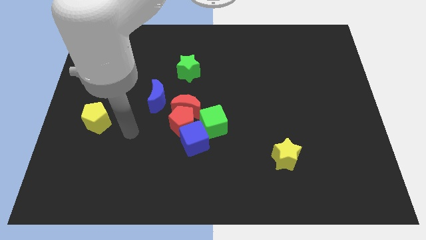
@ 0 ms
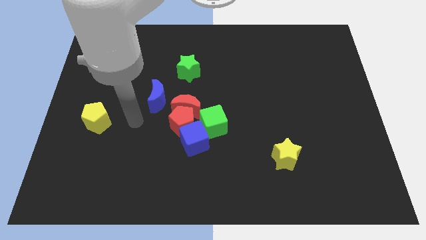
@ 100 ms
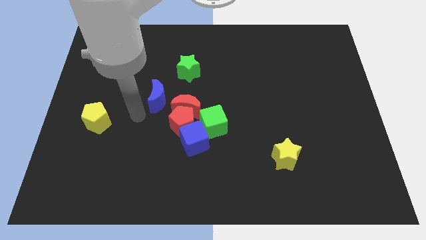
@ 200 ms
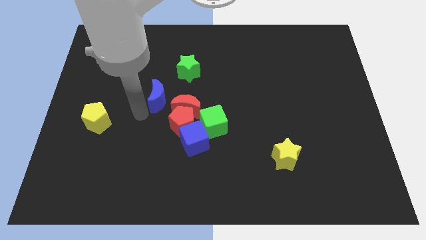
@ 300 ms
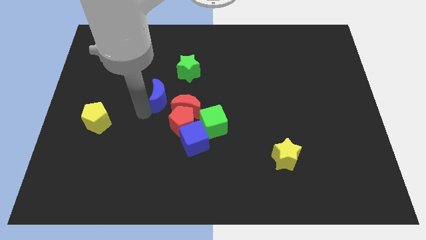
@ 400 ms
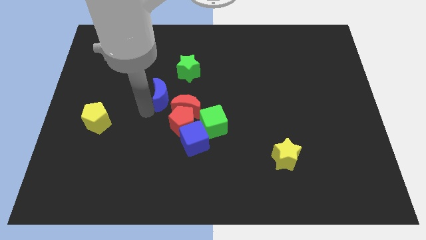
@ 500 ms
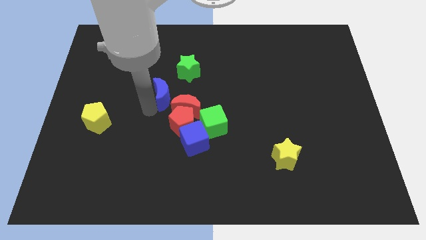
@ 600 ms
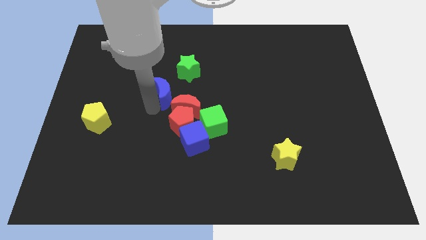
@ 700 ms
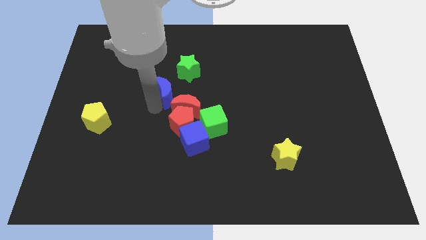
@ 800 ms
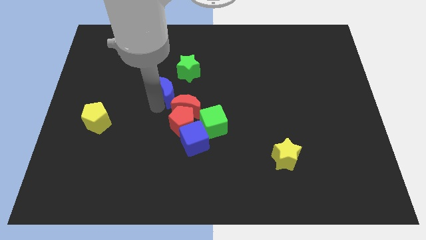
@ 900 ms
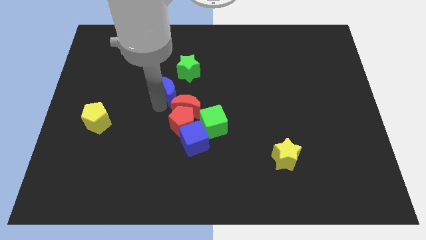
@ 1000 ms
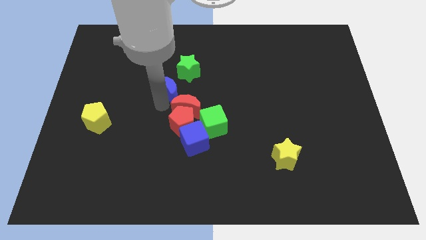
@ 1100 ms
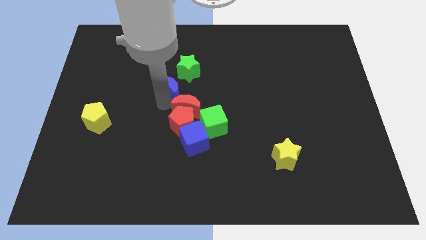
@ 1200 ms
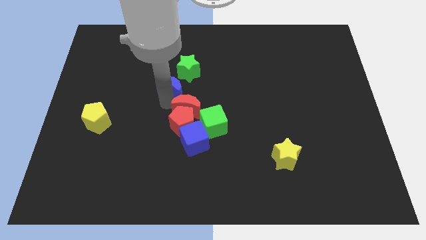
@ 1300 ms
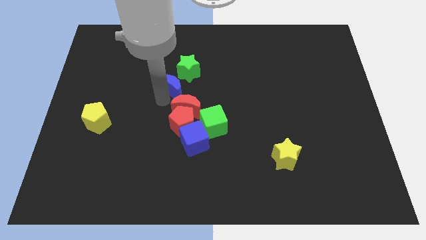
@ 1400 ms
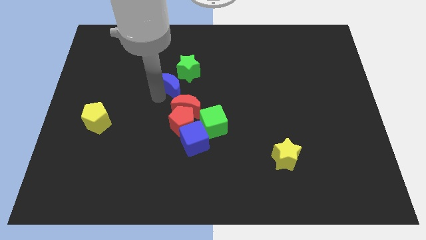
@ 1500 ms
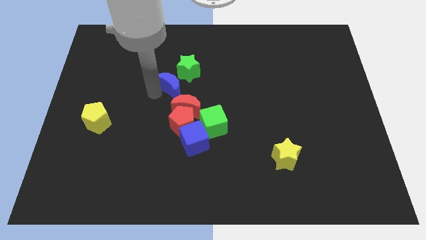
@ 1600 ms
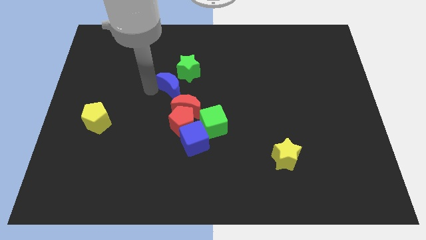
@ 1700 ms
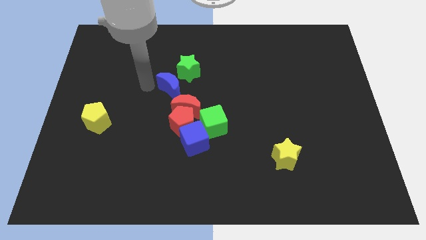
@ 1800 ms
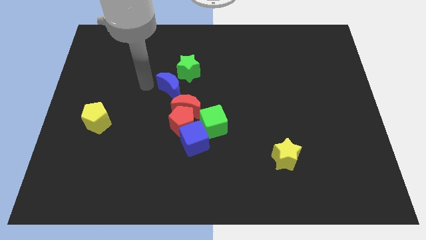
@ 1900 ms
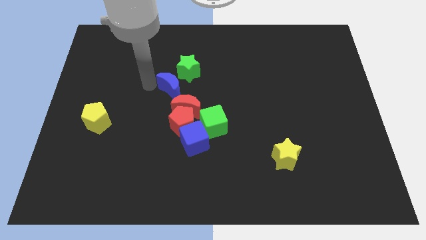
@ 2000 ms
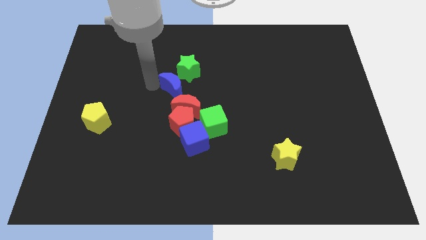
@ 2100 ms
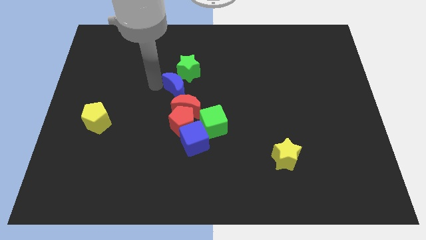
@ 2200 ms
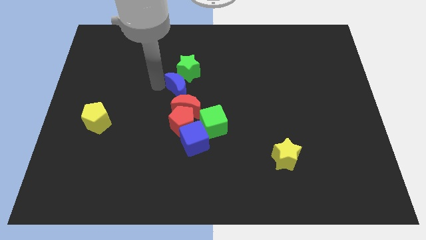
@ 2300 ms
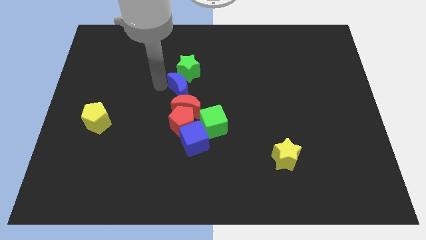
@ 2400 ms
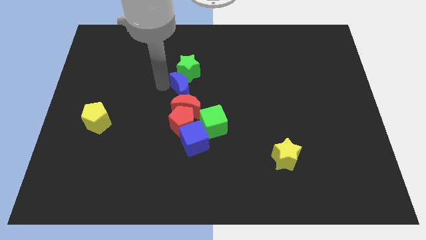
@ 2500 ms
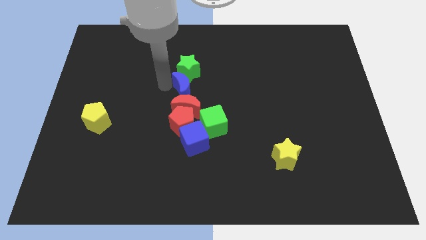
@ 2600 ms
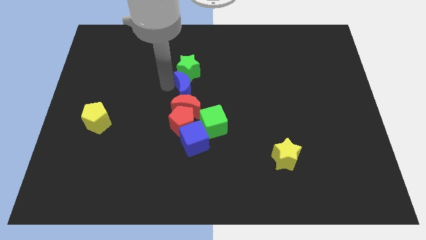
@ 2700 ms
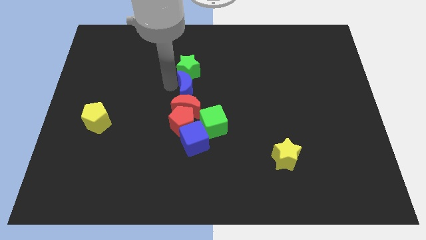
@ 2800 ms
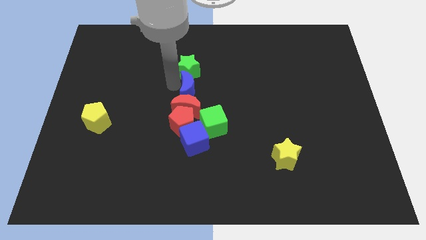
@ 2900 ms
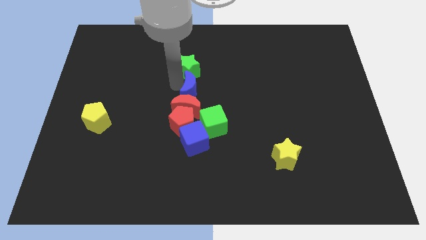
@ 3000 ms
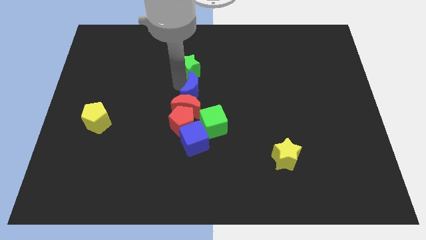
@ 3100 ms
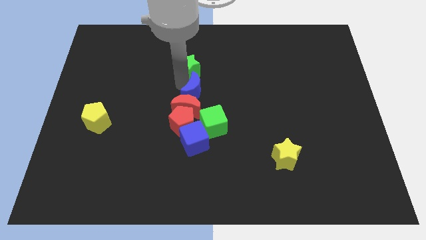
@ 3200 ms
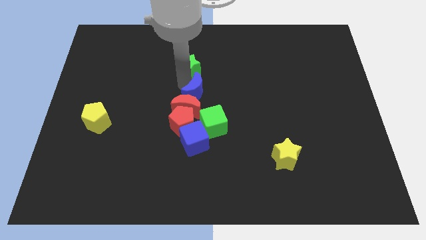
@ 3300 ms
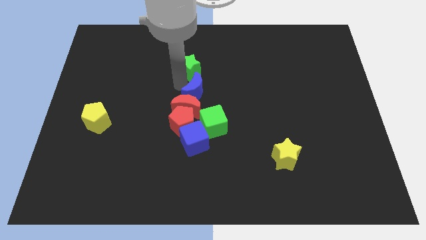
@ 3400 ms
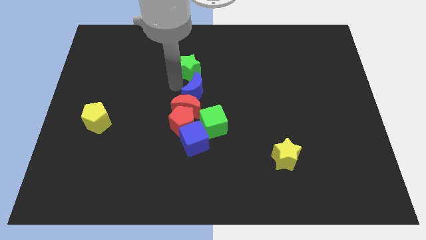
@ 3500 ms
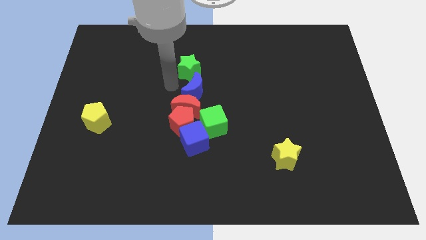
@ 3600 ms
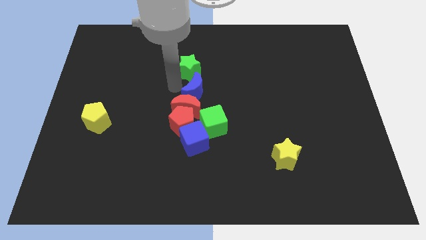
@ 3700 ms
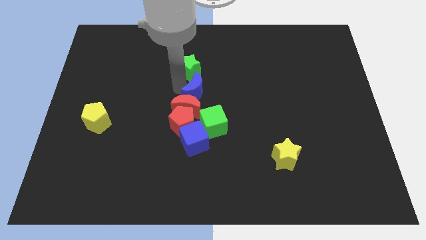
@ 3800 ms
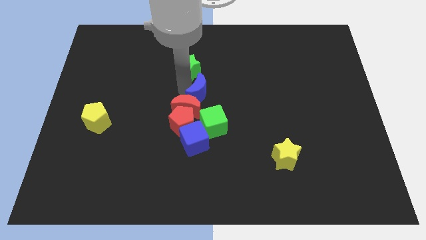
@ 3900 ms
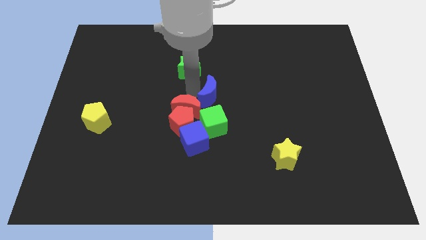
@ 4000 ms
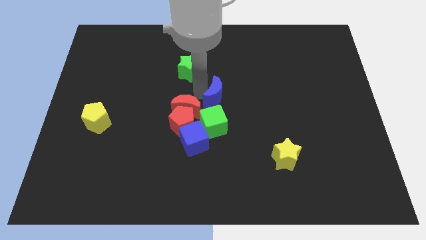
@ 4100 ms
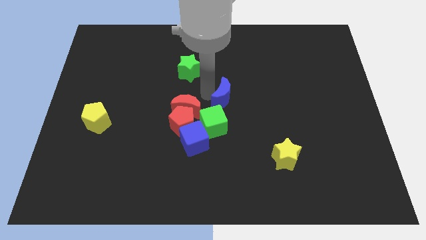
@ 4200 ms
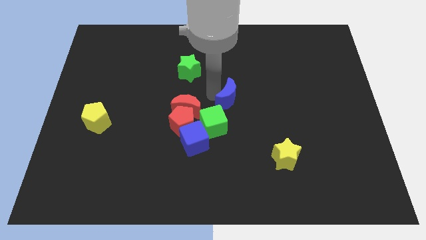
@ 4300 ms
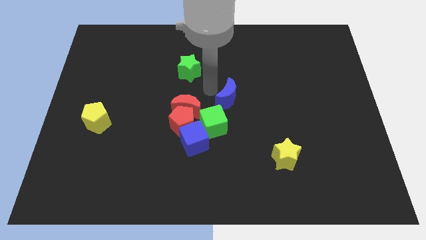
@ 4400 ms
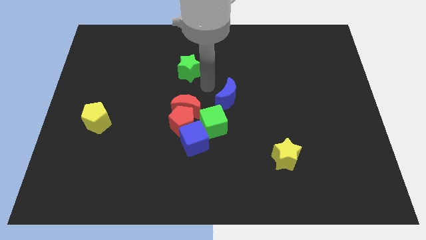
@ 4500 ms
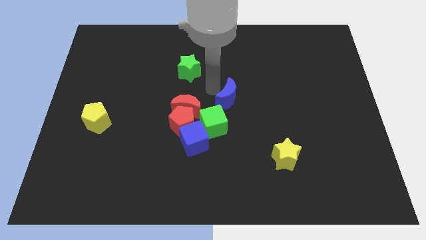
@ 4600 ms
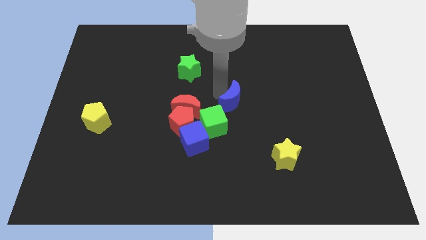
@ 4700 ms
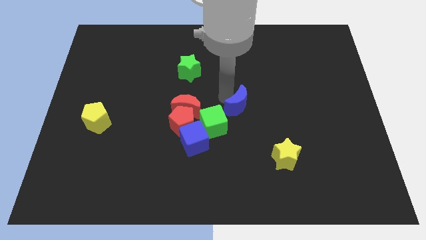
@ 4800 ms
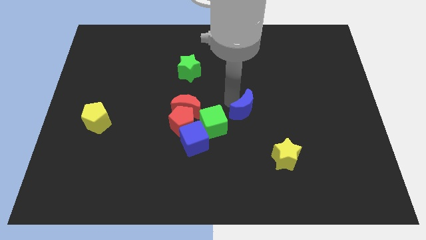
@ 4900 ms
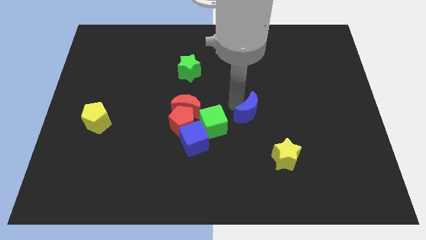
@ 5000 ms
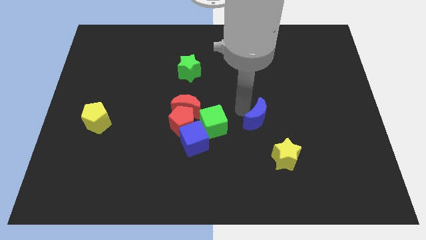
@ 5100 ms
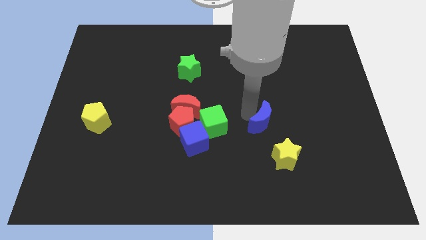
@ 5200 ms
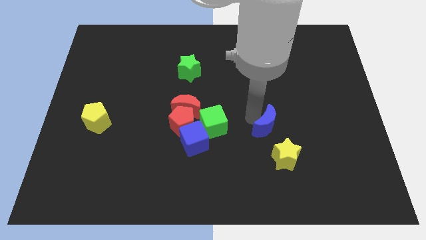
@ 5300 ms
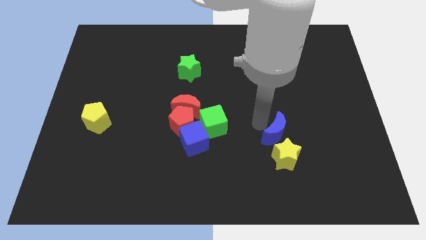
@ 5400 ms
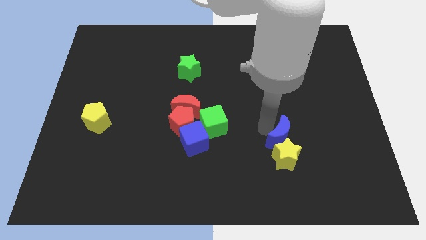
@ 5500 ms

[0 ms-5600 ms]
move the blue moon to the top right side of the yellow star

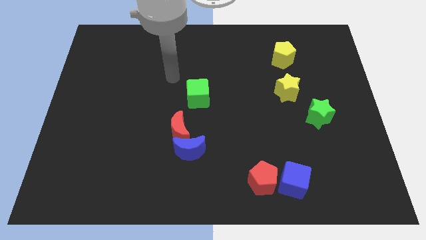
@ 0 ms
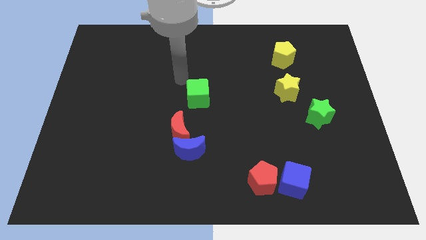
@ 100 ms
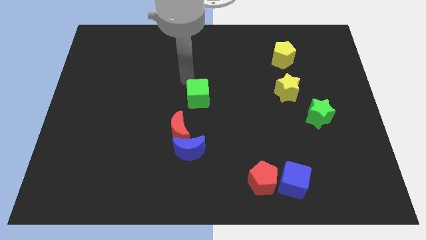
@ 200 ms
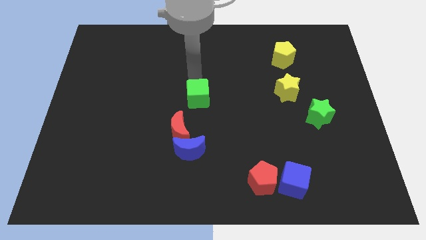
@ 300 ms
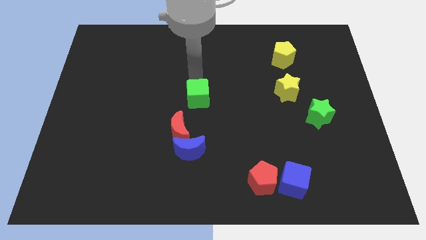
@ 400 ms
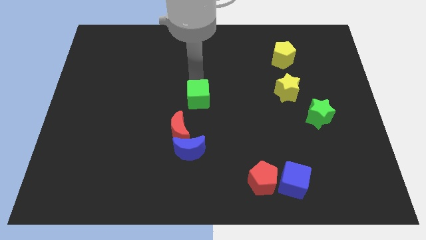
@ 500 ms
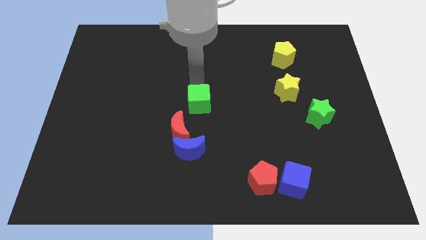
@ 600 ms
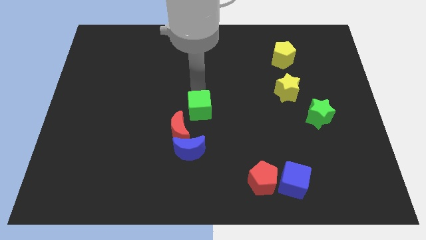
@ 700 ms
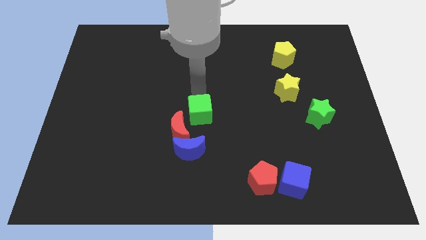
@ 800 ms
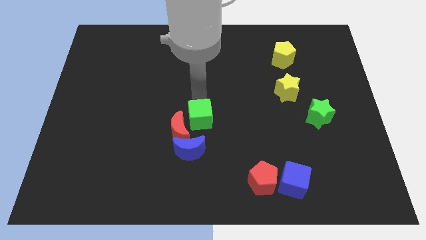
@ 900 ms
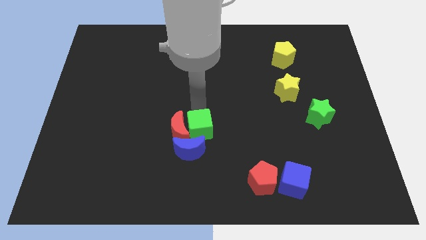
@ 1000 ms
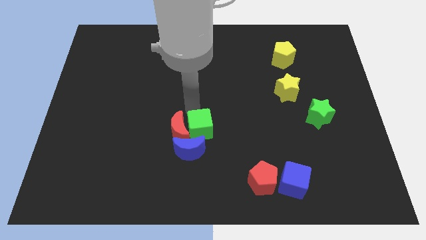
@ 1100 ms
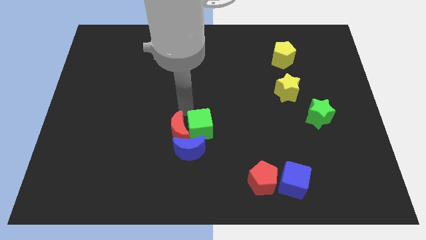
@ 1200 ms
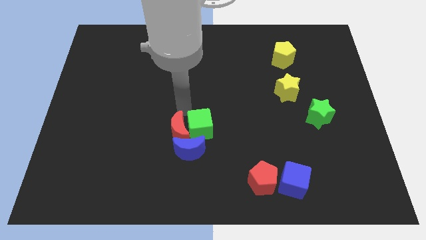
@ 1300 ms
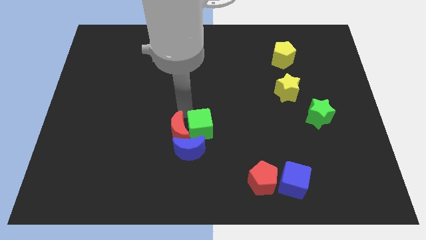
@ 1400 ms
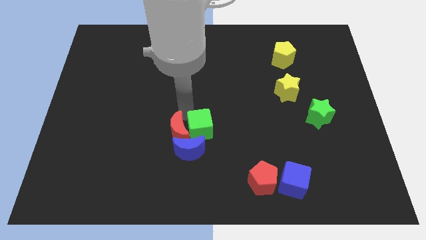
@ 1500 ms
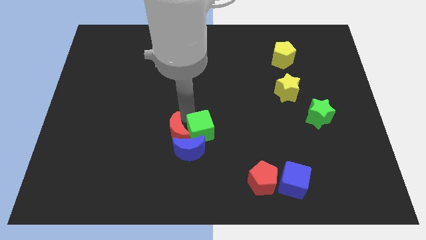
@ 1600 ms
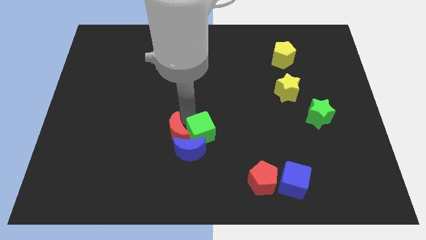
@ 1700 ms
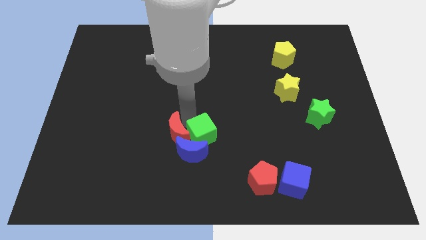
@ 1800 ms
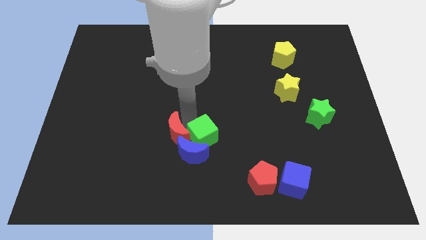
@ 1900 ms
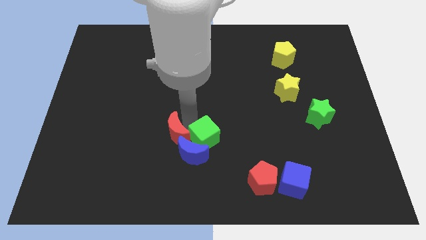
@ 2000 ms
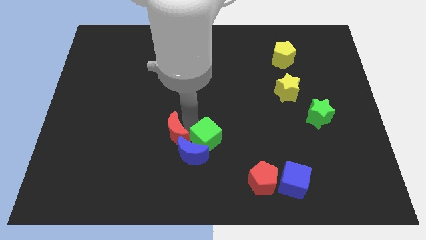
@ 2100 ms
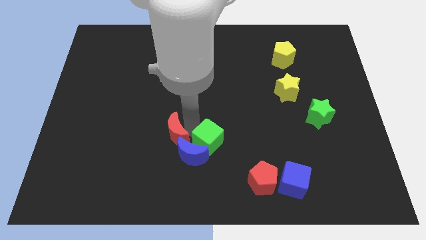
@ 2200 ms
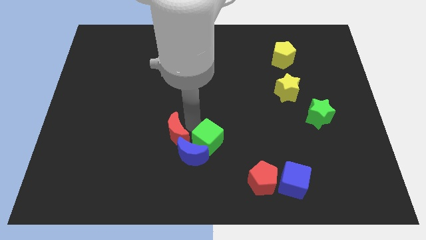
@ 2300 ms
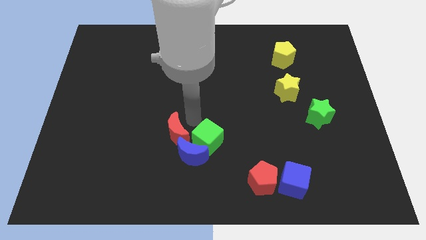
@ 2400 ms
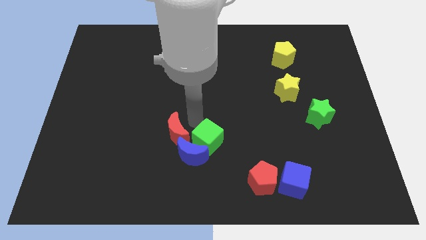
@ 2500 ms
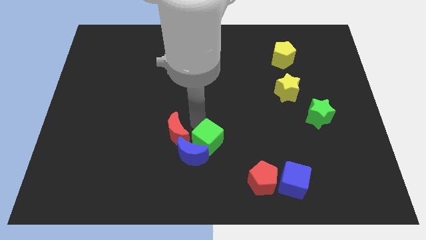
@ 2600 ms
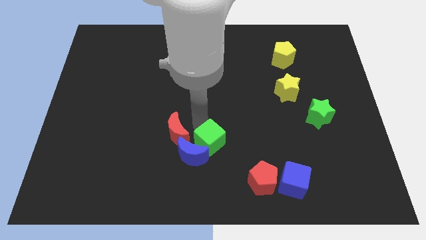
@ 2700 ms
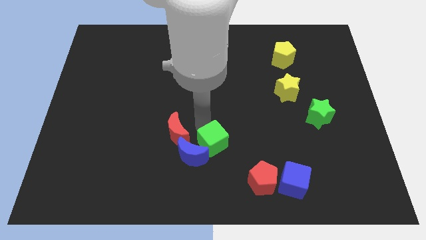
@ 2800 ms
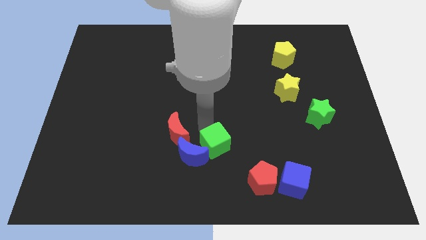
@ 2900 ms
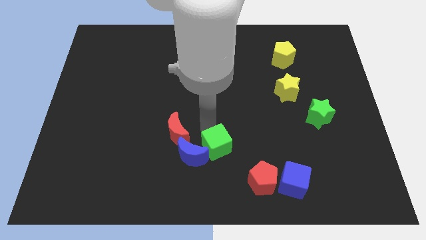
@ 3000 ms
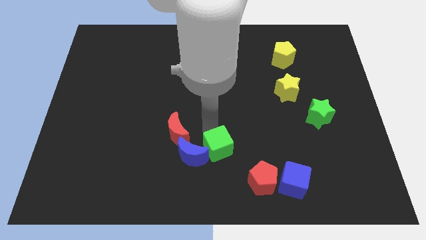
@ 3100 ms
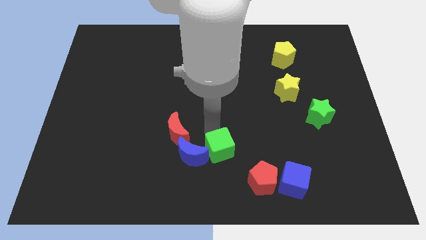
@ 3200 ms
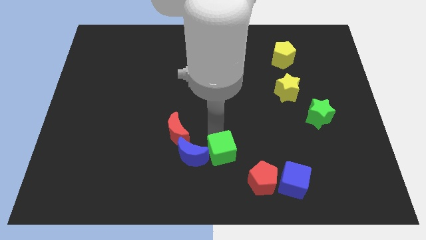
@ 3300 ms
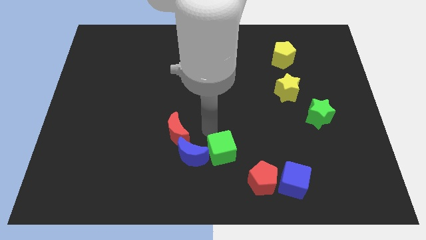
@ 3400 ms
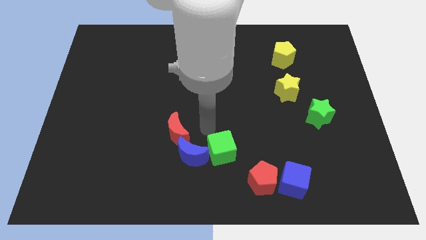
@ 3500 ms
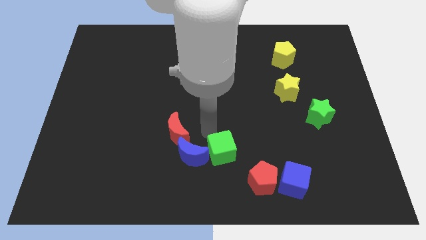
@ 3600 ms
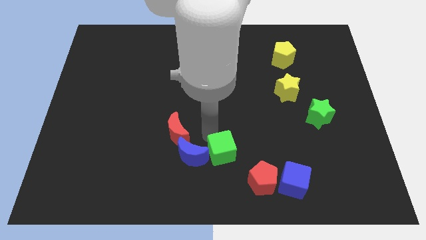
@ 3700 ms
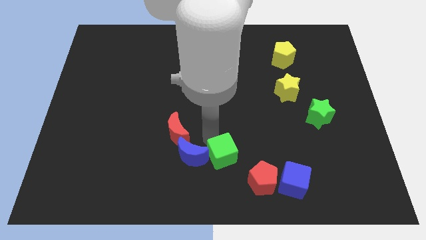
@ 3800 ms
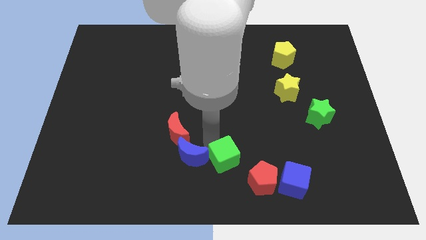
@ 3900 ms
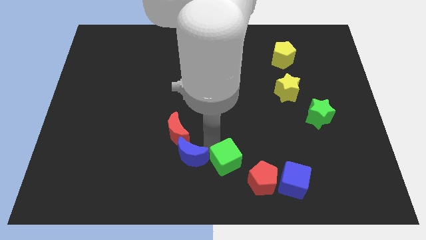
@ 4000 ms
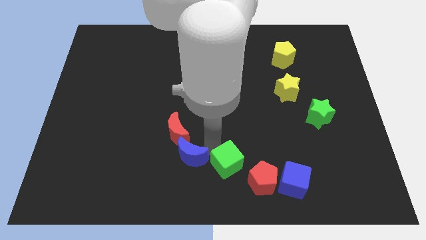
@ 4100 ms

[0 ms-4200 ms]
put the green cube to the left side of the blue cube
